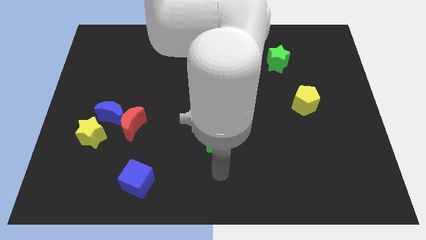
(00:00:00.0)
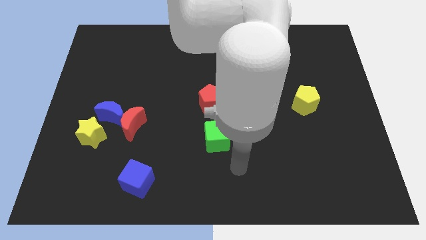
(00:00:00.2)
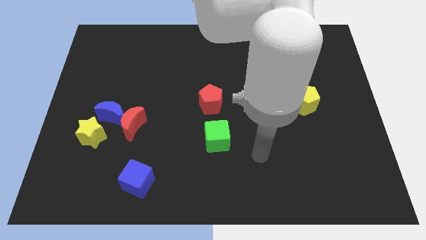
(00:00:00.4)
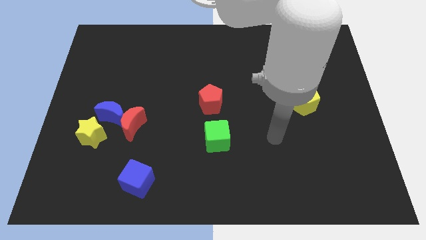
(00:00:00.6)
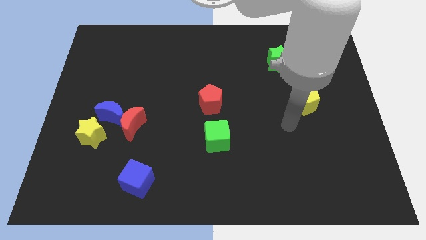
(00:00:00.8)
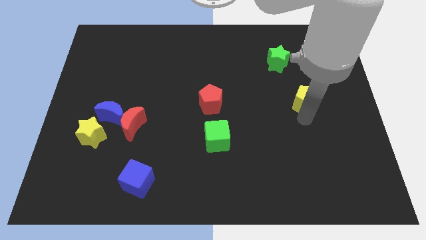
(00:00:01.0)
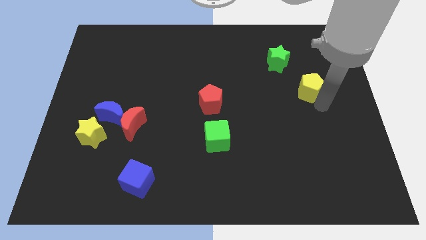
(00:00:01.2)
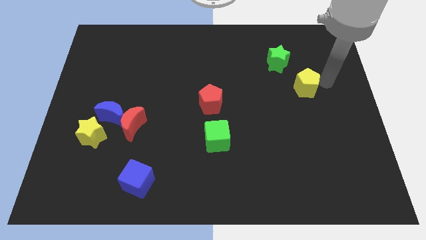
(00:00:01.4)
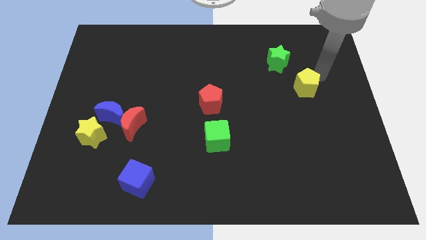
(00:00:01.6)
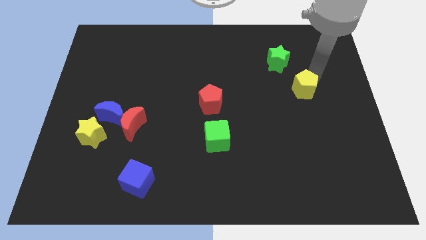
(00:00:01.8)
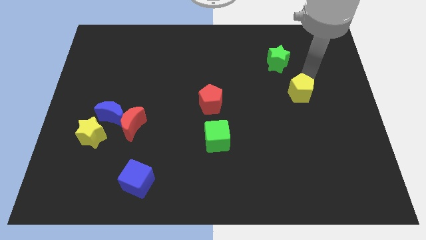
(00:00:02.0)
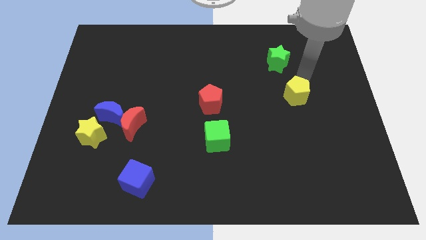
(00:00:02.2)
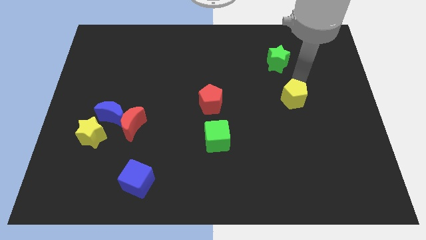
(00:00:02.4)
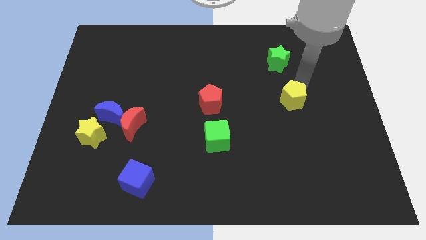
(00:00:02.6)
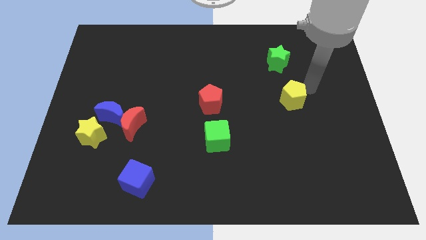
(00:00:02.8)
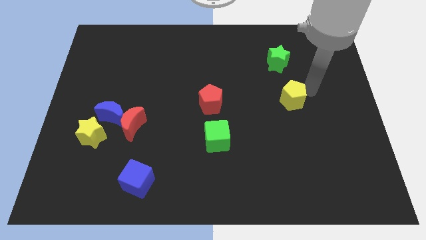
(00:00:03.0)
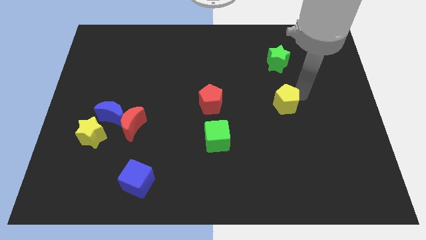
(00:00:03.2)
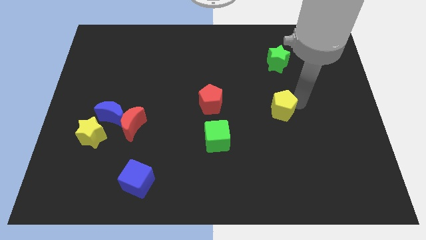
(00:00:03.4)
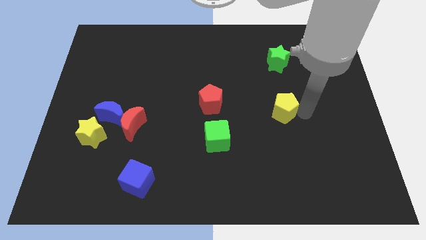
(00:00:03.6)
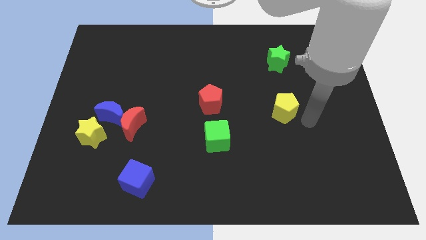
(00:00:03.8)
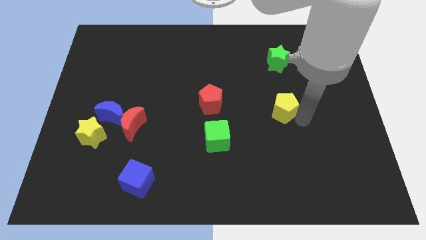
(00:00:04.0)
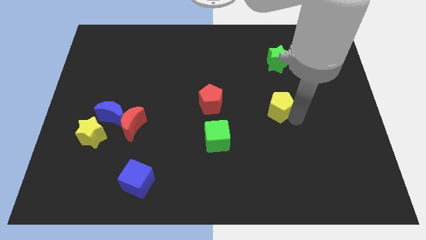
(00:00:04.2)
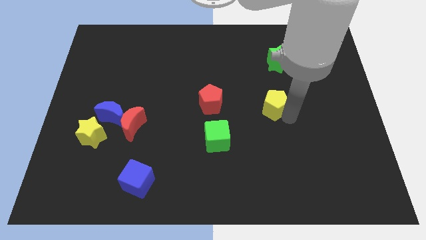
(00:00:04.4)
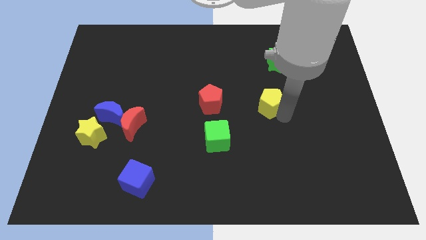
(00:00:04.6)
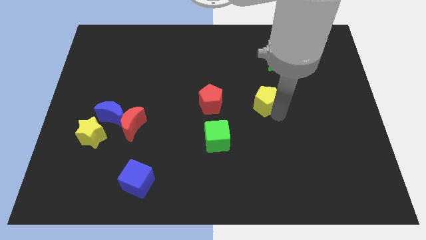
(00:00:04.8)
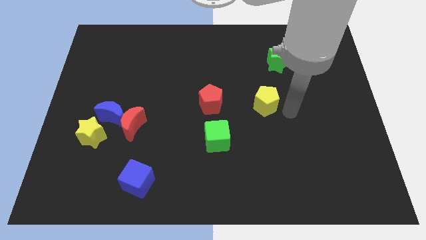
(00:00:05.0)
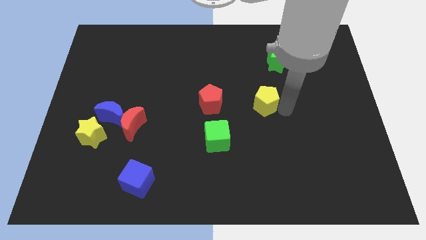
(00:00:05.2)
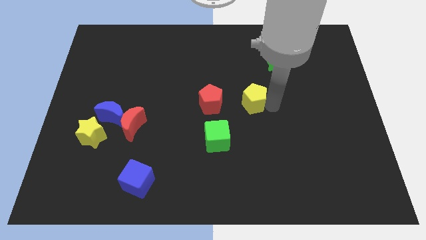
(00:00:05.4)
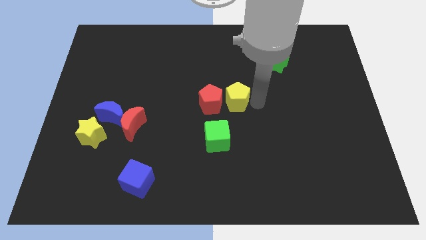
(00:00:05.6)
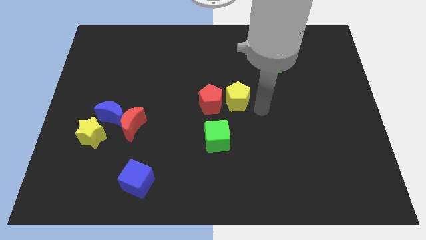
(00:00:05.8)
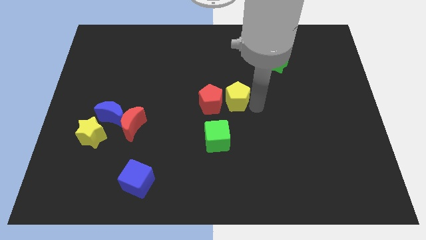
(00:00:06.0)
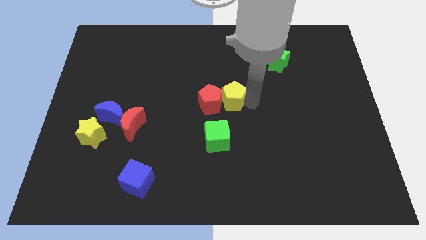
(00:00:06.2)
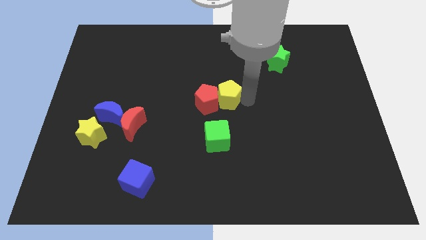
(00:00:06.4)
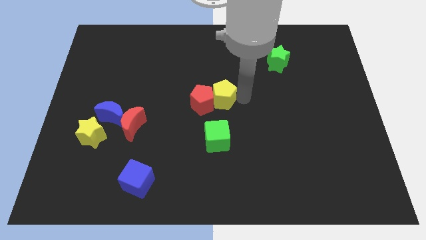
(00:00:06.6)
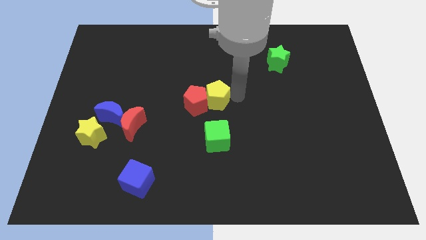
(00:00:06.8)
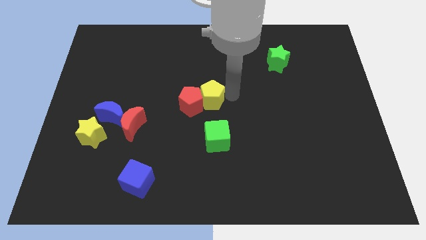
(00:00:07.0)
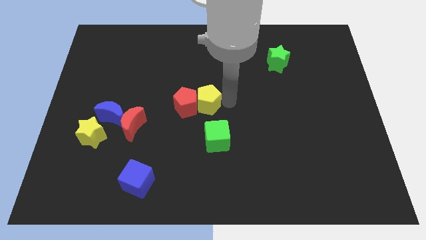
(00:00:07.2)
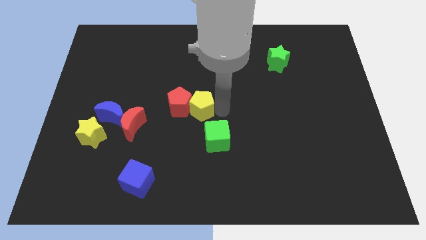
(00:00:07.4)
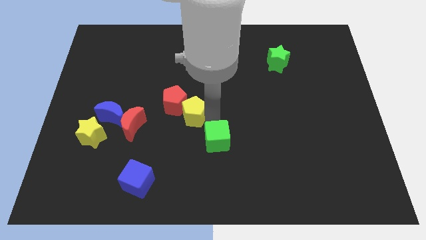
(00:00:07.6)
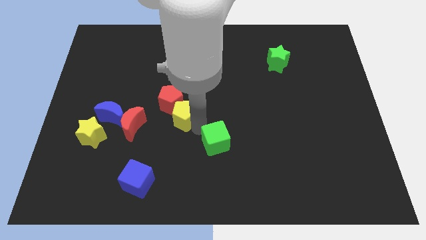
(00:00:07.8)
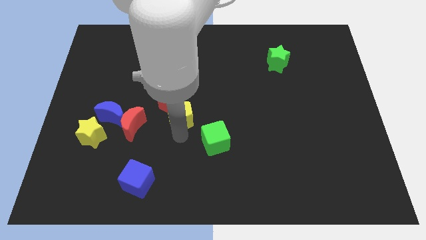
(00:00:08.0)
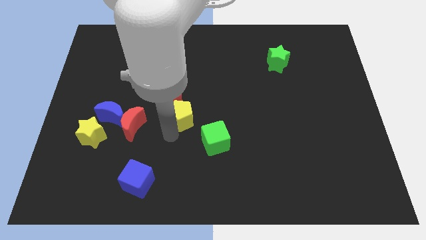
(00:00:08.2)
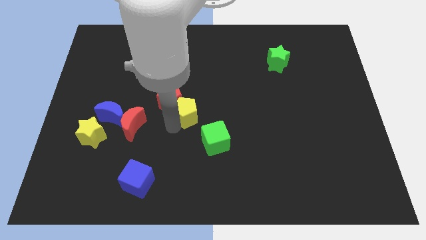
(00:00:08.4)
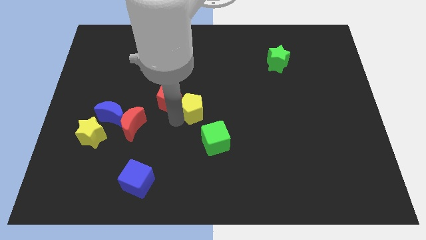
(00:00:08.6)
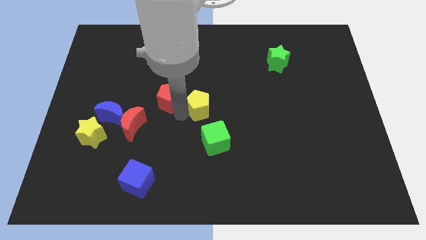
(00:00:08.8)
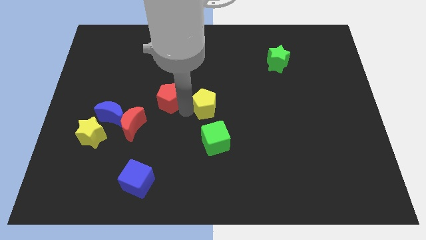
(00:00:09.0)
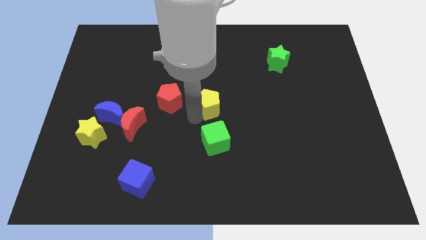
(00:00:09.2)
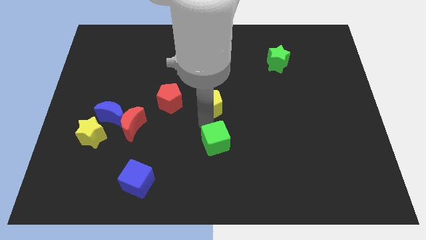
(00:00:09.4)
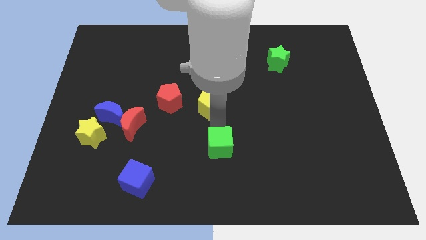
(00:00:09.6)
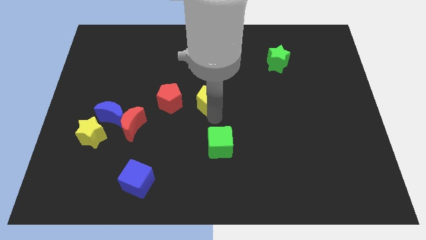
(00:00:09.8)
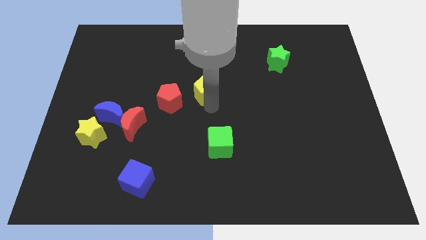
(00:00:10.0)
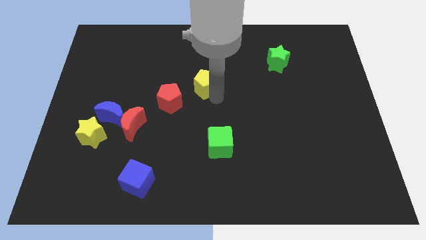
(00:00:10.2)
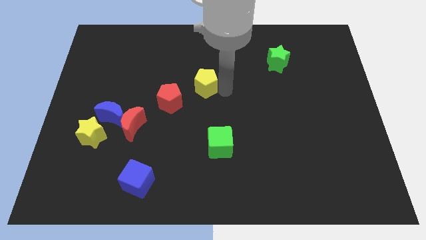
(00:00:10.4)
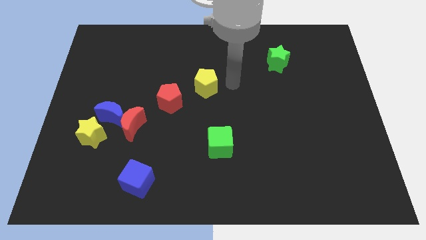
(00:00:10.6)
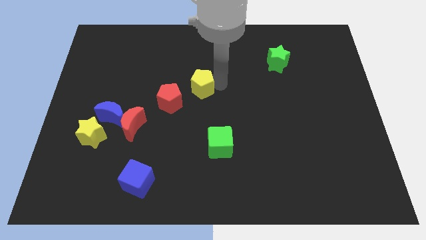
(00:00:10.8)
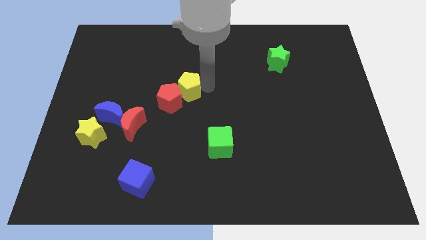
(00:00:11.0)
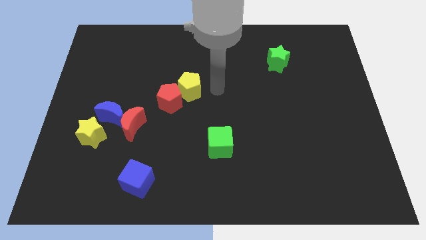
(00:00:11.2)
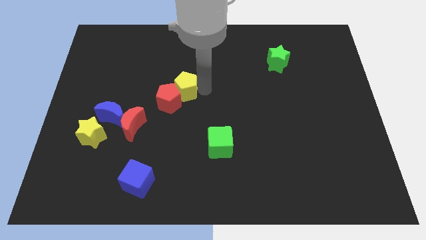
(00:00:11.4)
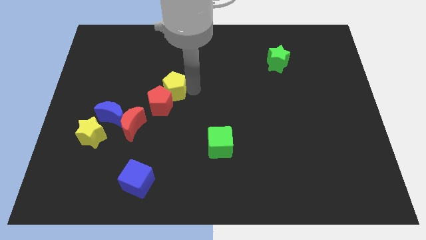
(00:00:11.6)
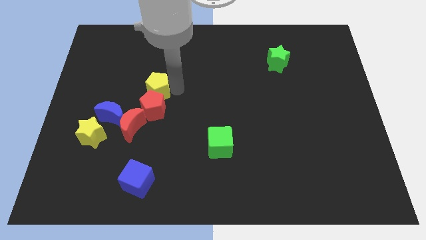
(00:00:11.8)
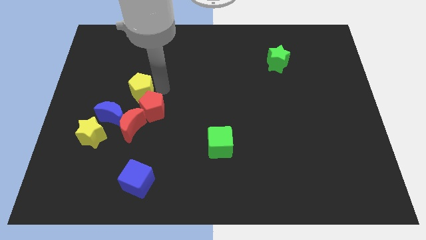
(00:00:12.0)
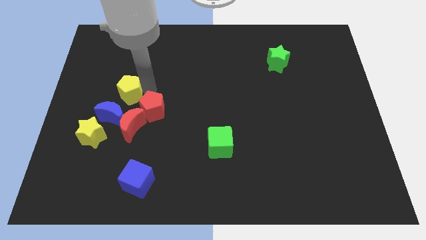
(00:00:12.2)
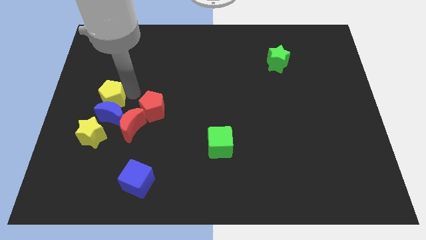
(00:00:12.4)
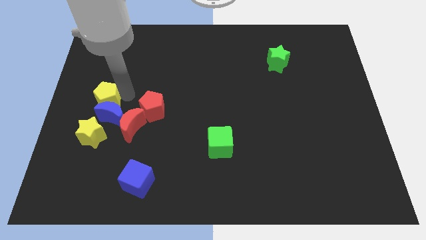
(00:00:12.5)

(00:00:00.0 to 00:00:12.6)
push the yellow pentagon to the left side

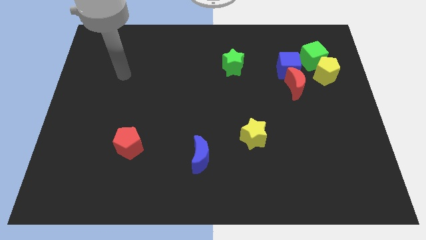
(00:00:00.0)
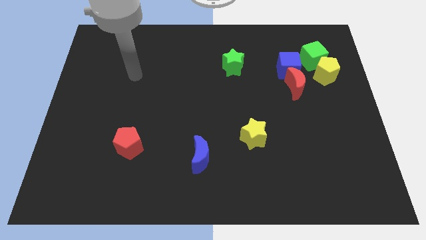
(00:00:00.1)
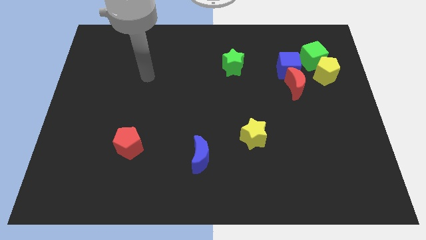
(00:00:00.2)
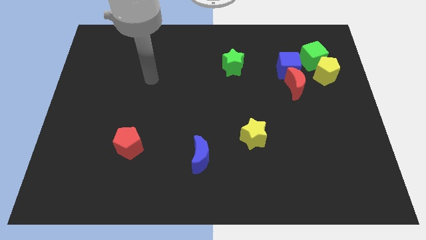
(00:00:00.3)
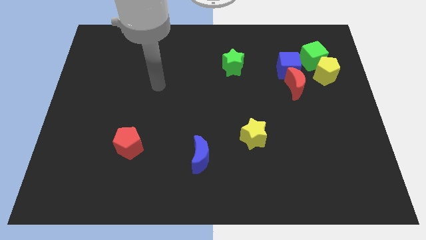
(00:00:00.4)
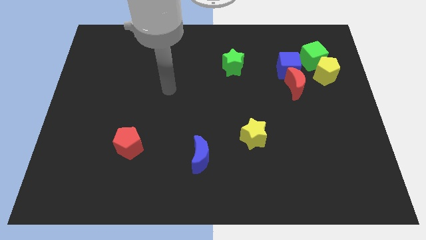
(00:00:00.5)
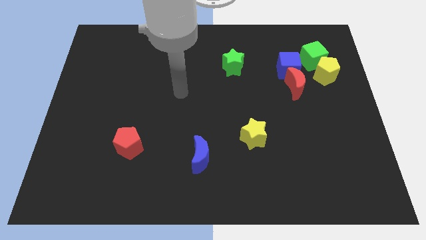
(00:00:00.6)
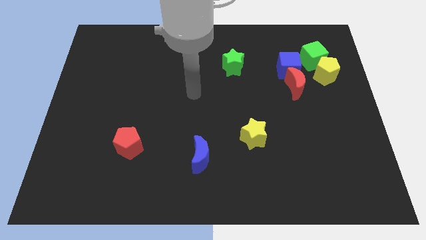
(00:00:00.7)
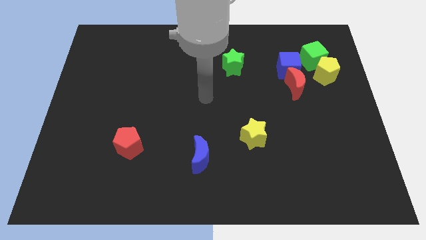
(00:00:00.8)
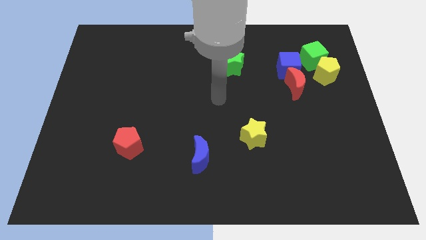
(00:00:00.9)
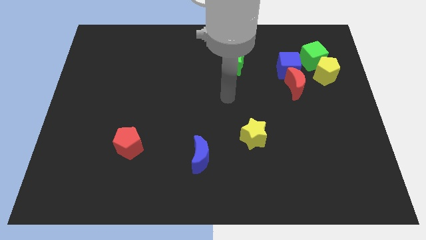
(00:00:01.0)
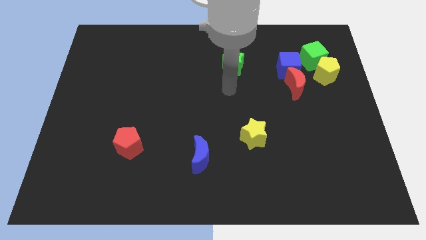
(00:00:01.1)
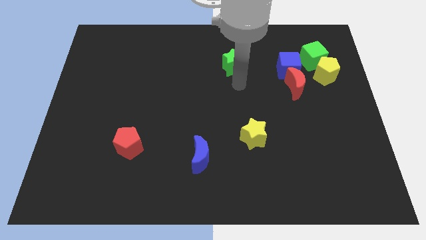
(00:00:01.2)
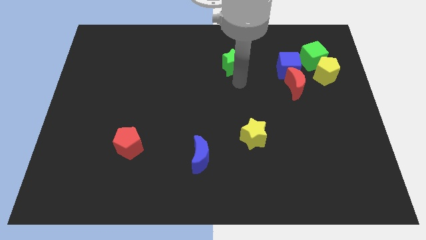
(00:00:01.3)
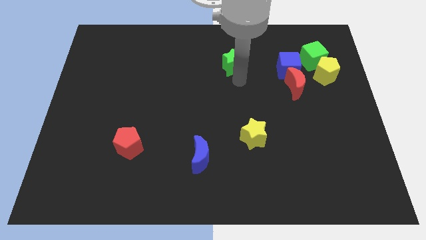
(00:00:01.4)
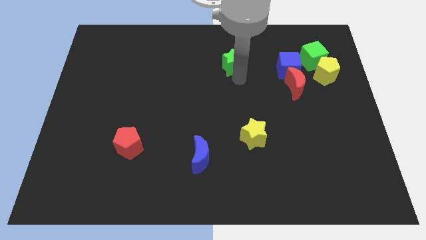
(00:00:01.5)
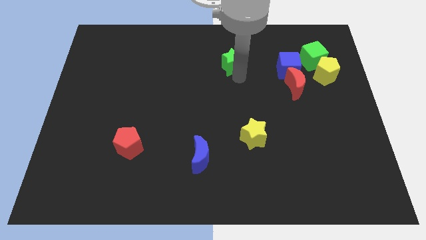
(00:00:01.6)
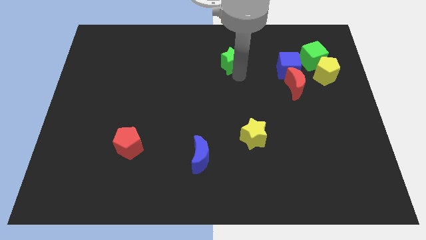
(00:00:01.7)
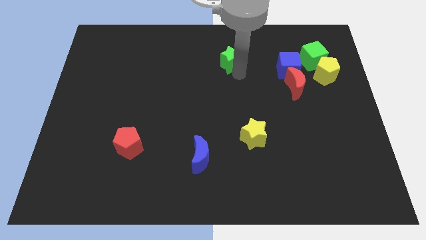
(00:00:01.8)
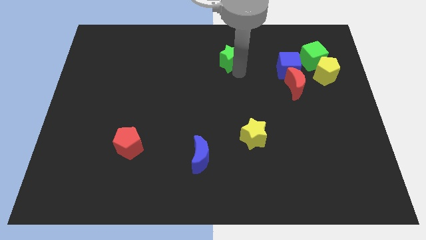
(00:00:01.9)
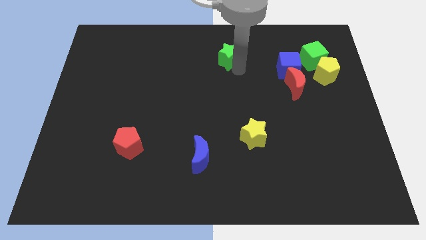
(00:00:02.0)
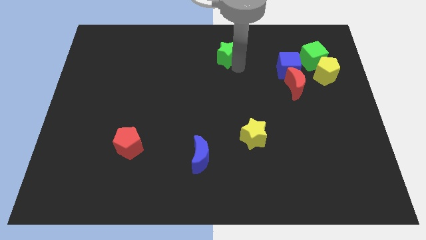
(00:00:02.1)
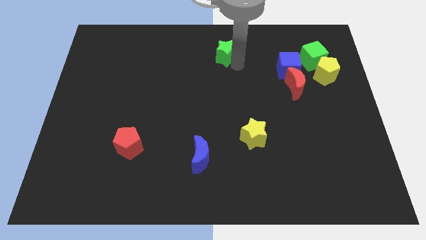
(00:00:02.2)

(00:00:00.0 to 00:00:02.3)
put the green star to the top side
